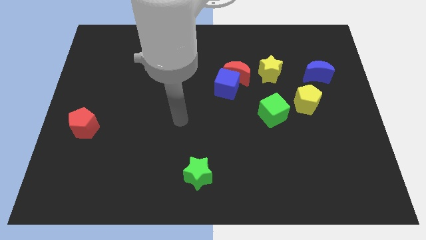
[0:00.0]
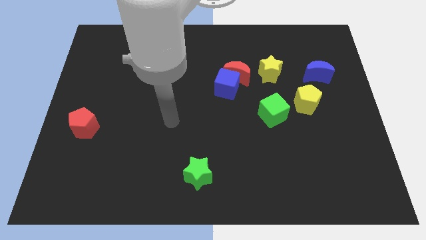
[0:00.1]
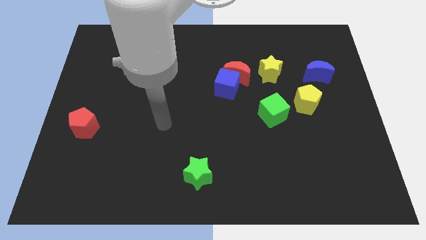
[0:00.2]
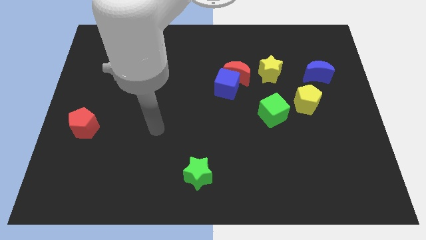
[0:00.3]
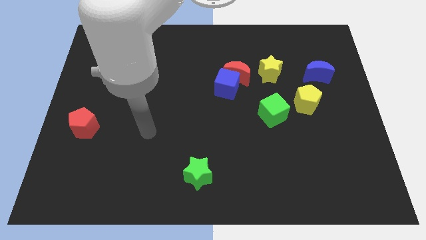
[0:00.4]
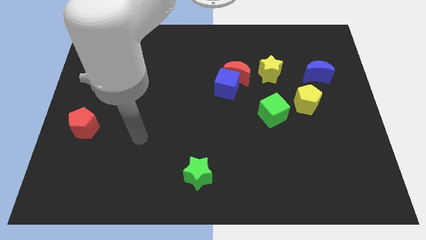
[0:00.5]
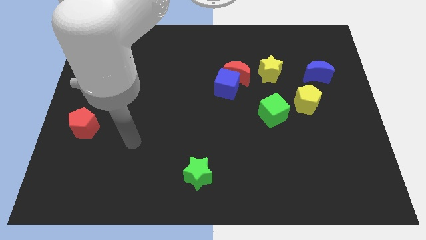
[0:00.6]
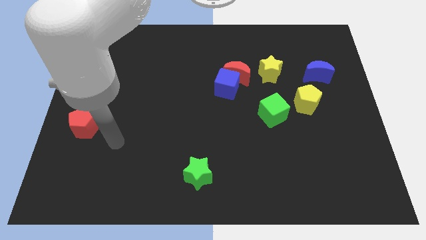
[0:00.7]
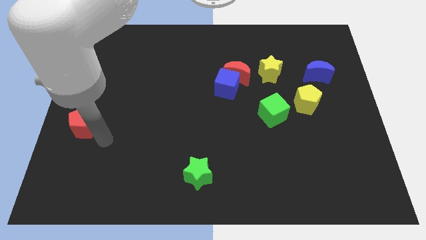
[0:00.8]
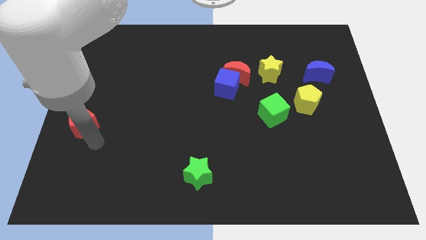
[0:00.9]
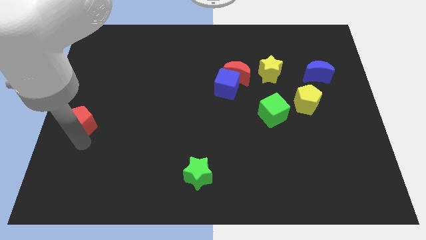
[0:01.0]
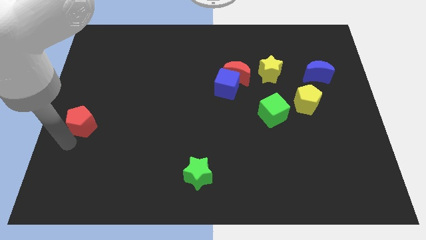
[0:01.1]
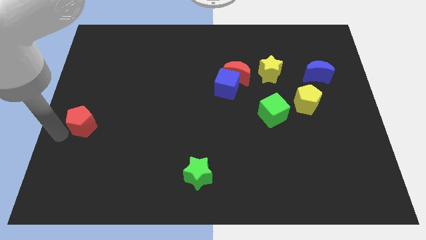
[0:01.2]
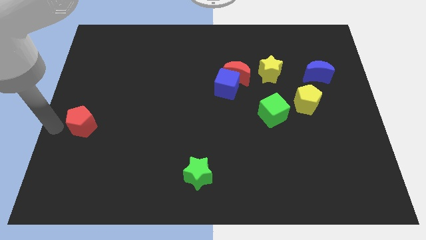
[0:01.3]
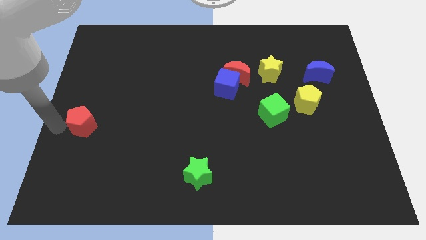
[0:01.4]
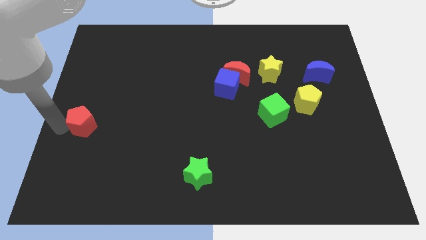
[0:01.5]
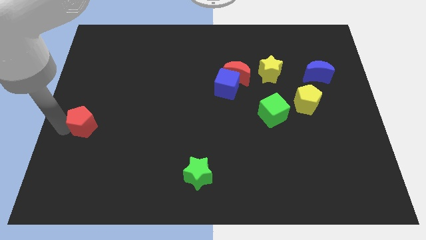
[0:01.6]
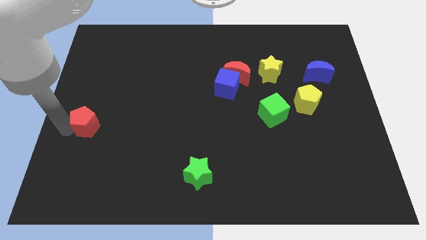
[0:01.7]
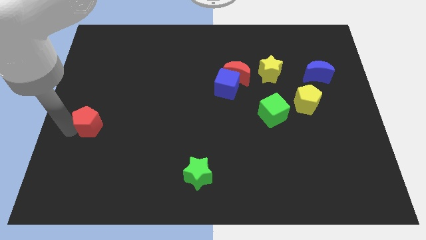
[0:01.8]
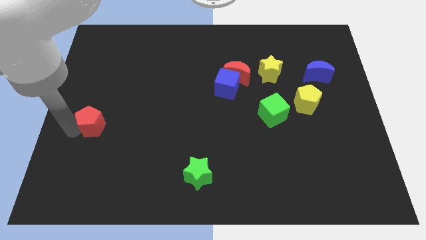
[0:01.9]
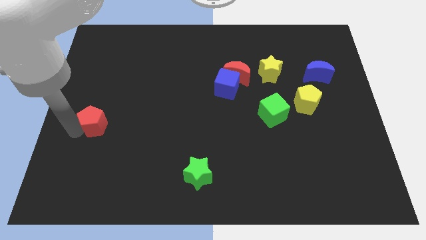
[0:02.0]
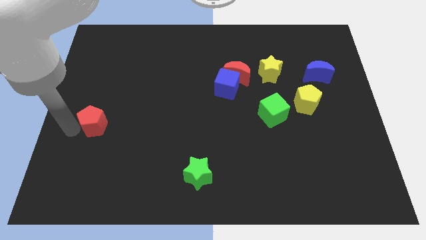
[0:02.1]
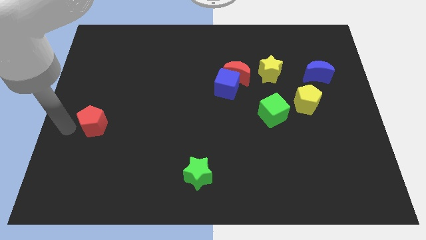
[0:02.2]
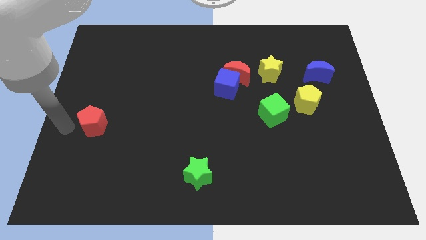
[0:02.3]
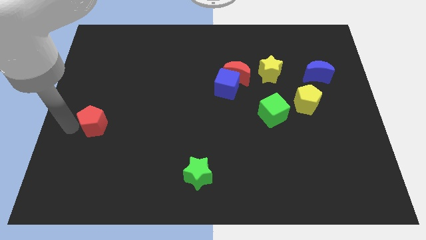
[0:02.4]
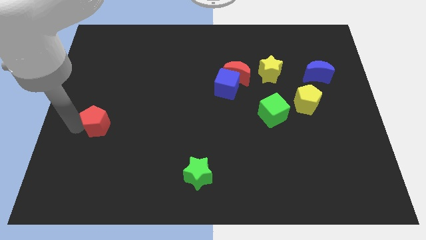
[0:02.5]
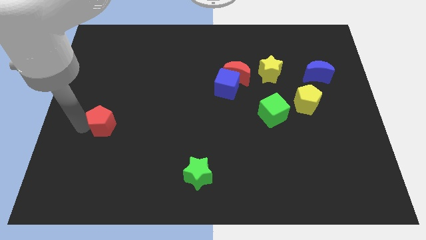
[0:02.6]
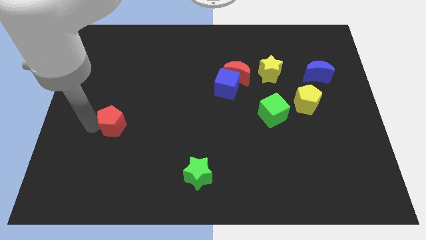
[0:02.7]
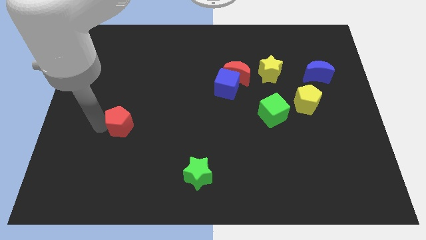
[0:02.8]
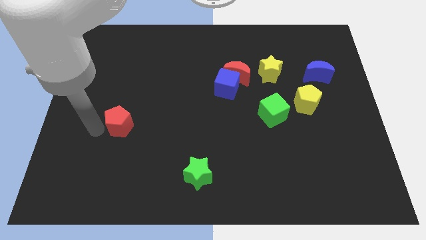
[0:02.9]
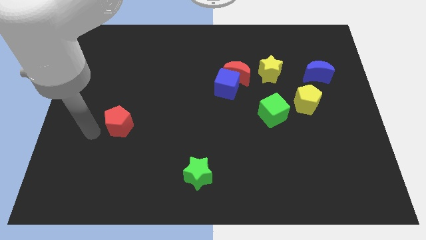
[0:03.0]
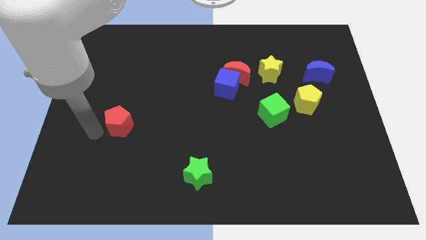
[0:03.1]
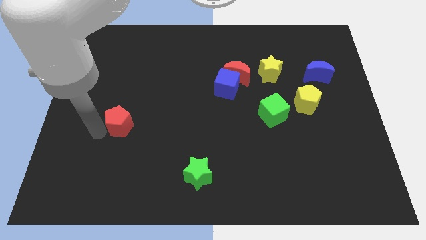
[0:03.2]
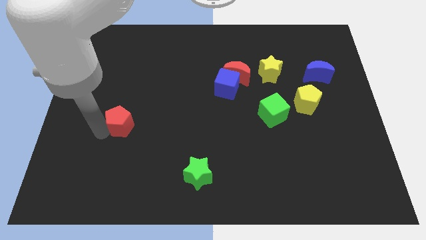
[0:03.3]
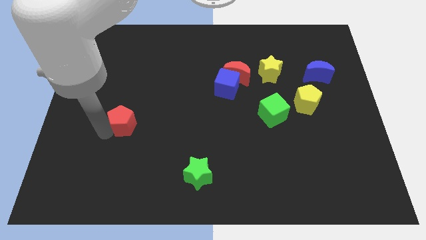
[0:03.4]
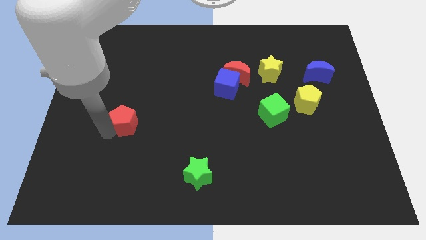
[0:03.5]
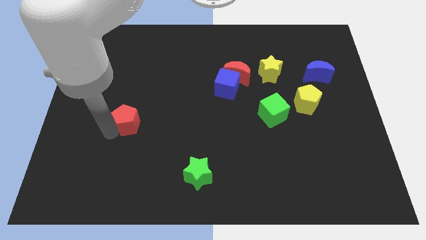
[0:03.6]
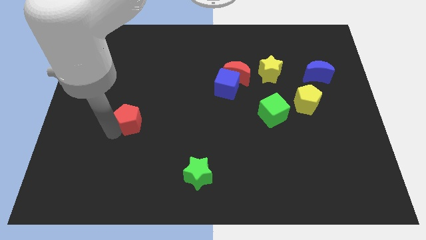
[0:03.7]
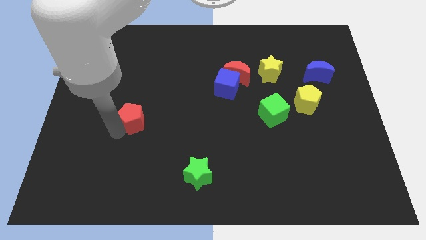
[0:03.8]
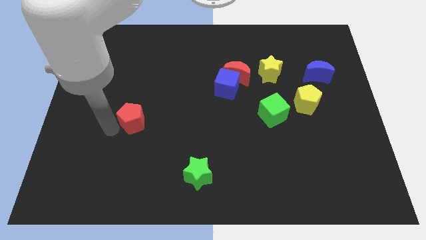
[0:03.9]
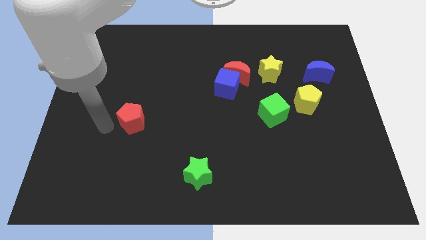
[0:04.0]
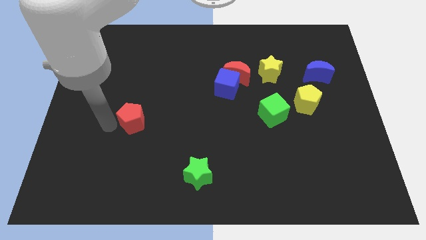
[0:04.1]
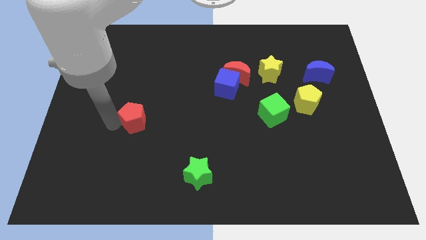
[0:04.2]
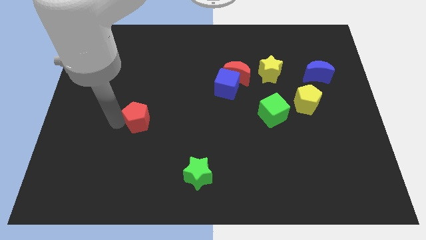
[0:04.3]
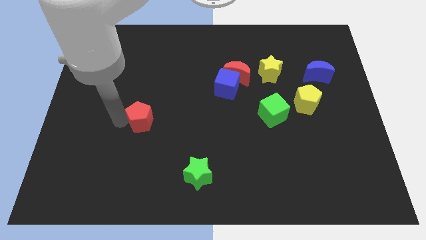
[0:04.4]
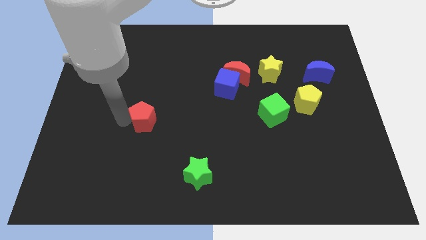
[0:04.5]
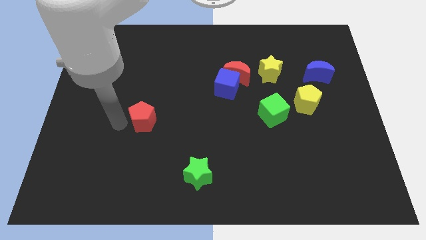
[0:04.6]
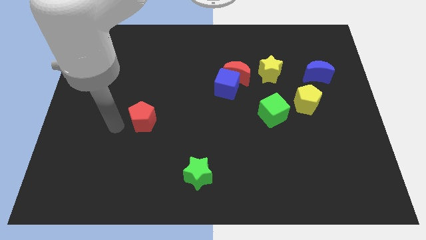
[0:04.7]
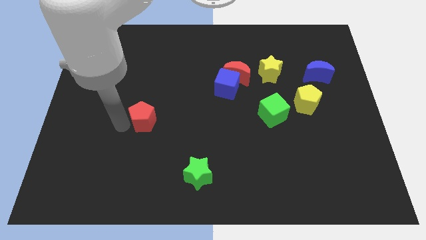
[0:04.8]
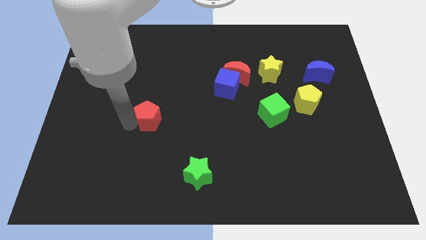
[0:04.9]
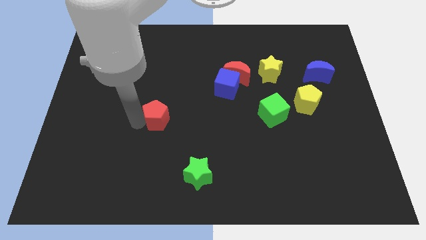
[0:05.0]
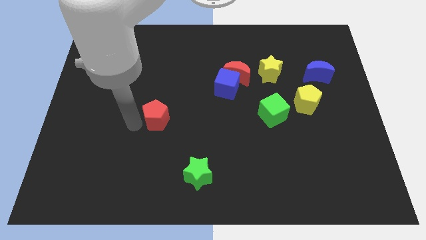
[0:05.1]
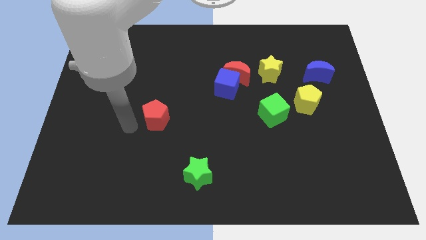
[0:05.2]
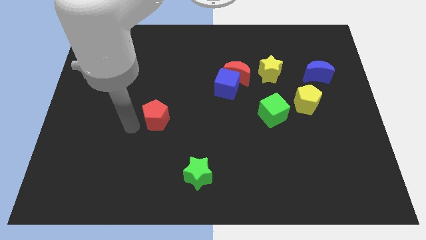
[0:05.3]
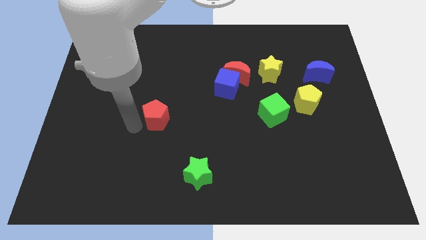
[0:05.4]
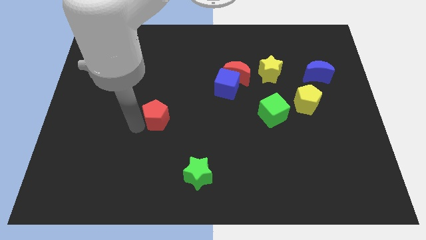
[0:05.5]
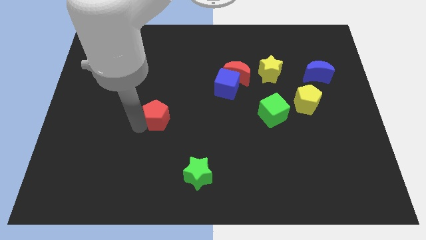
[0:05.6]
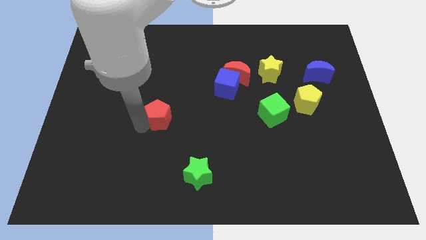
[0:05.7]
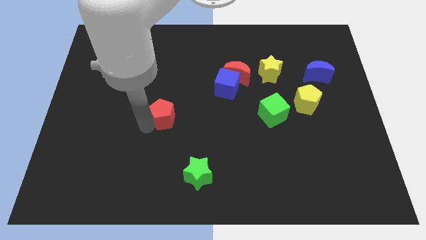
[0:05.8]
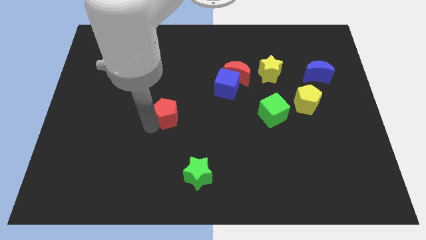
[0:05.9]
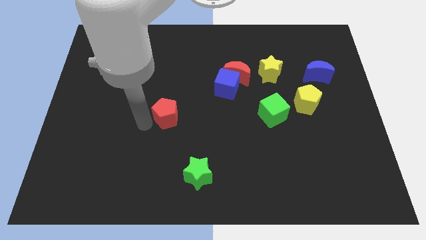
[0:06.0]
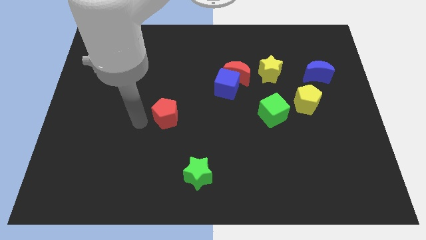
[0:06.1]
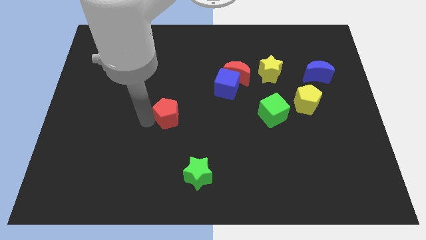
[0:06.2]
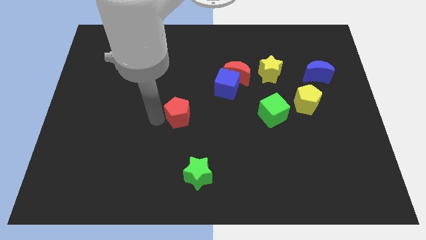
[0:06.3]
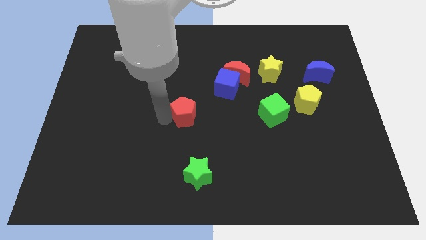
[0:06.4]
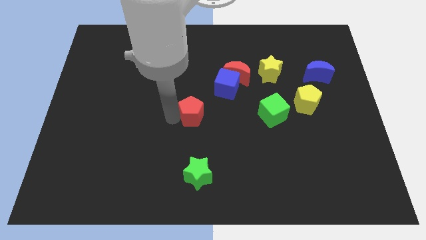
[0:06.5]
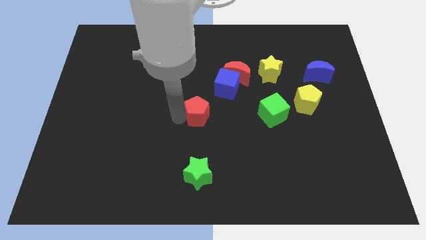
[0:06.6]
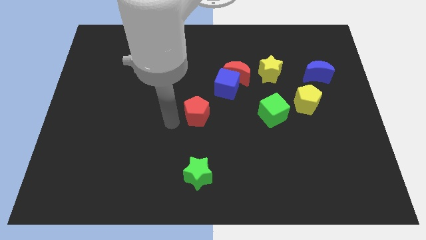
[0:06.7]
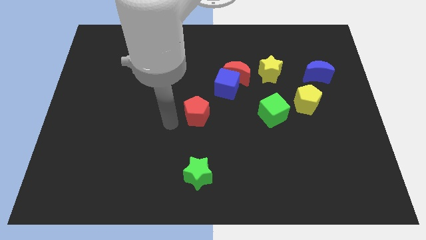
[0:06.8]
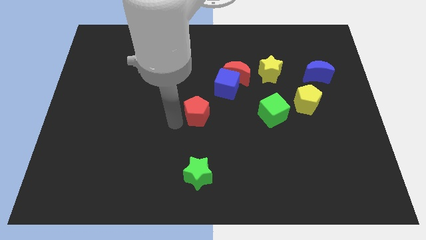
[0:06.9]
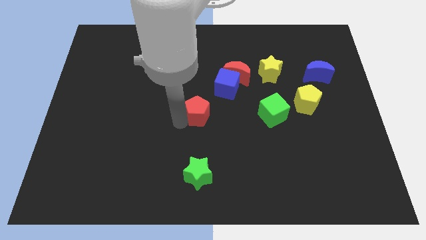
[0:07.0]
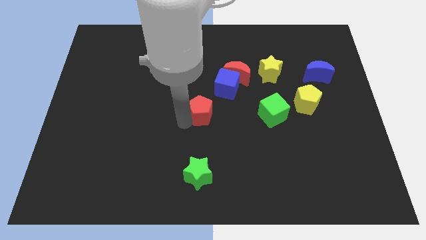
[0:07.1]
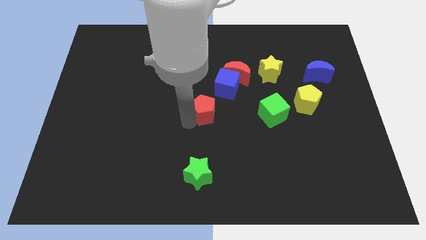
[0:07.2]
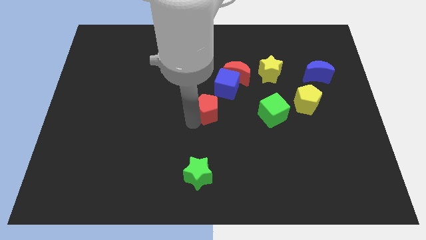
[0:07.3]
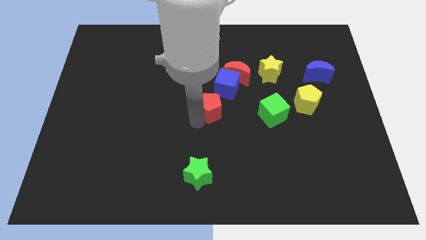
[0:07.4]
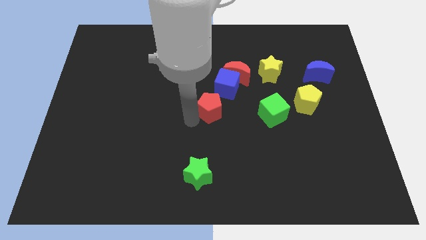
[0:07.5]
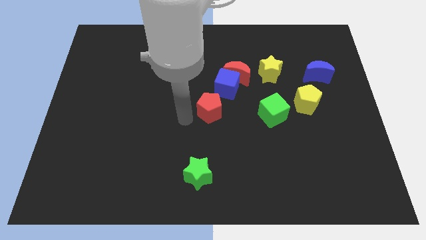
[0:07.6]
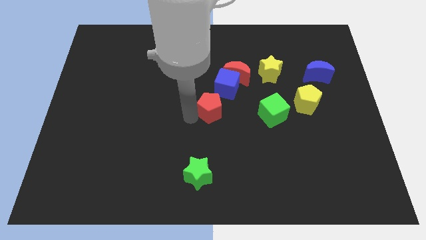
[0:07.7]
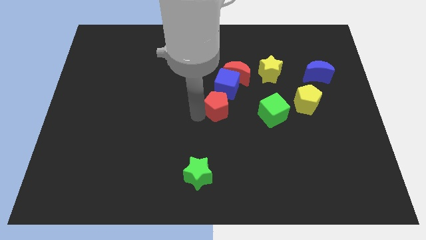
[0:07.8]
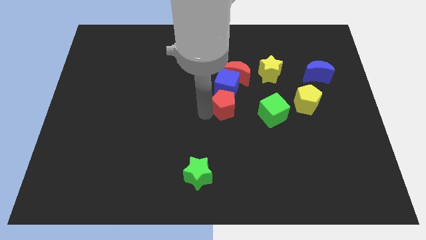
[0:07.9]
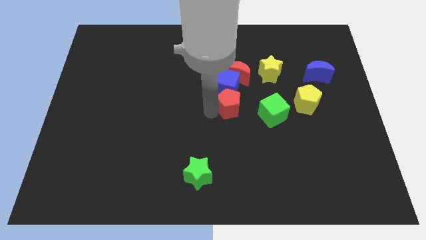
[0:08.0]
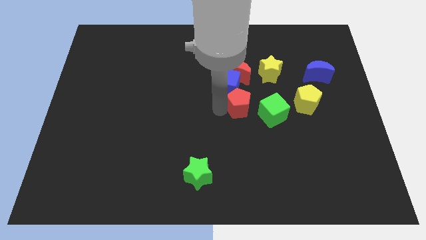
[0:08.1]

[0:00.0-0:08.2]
push the red pentagon just left of the yellow pentagon
